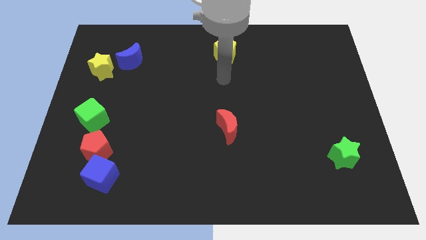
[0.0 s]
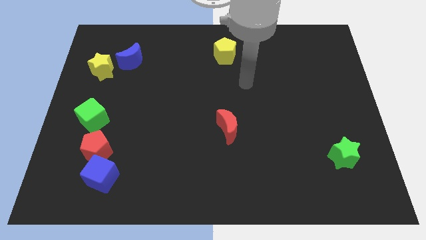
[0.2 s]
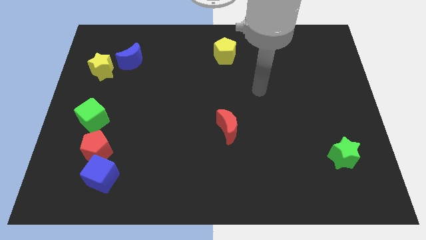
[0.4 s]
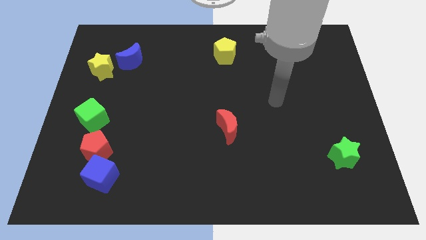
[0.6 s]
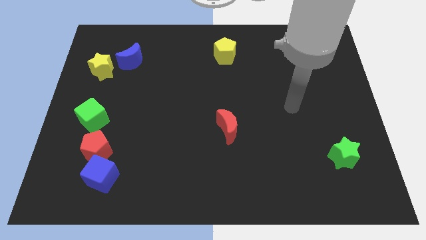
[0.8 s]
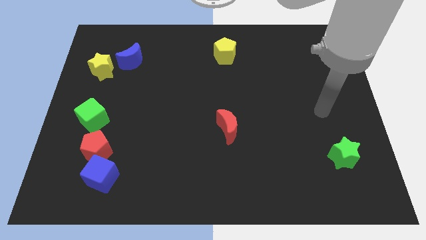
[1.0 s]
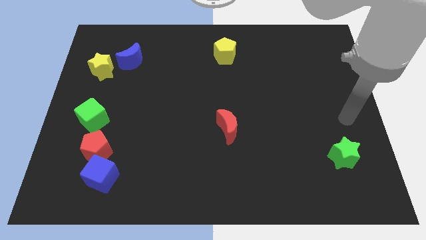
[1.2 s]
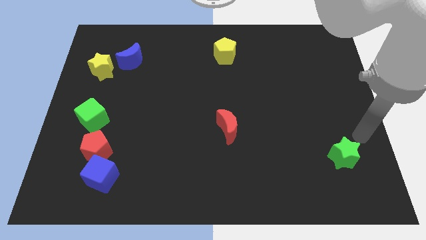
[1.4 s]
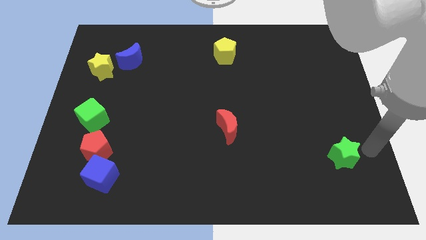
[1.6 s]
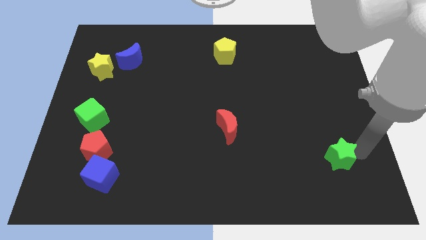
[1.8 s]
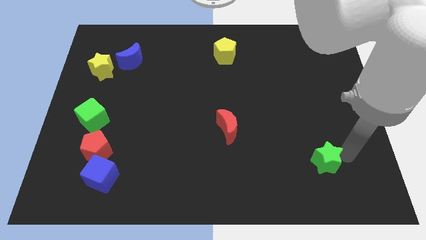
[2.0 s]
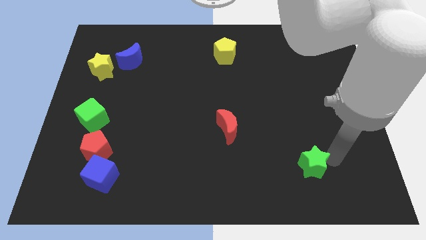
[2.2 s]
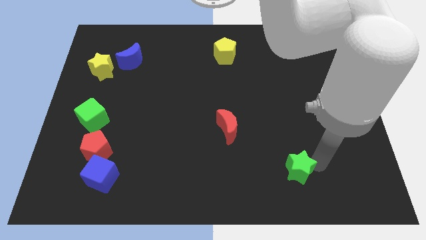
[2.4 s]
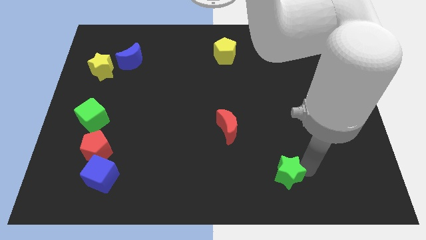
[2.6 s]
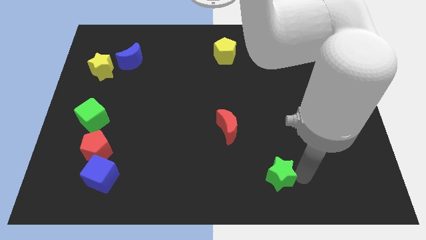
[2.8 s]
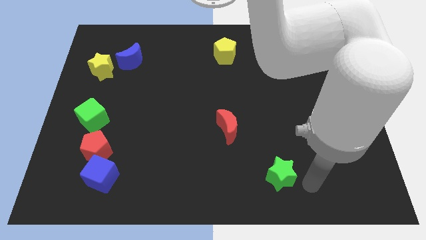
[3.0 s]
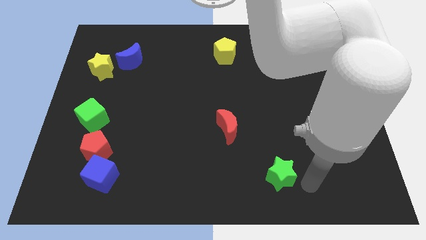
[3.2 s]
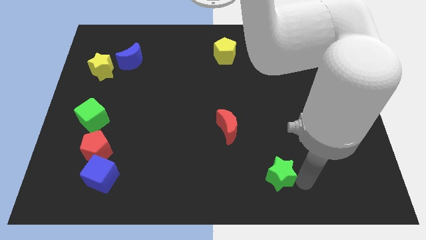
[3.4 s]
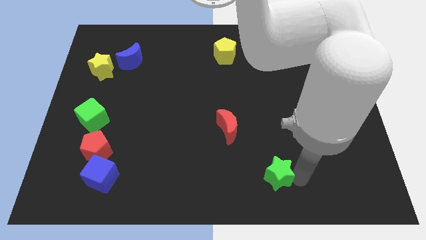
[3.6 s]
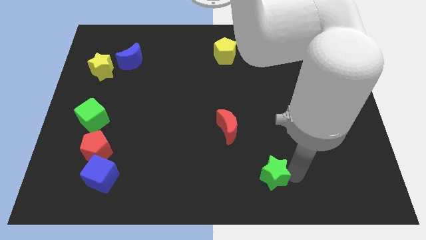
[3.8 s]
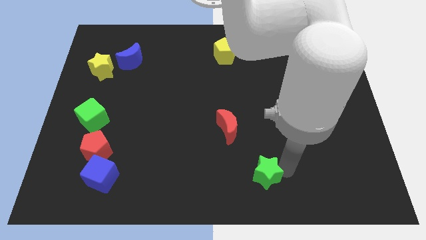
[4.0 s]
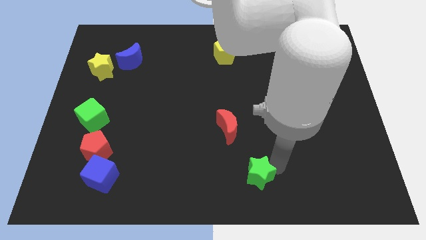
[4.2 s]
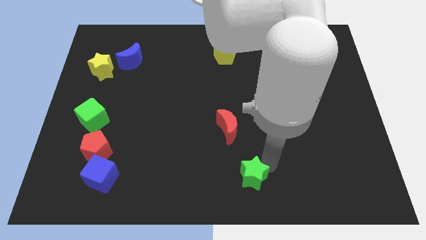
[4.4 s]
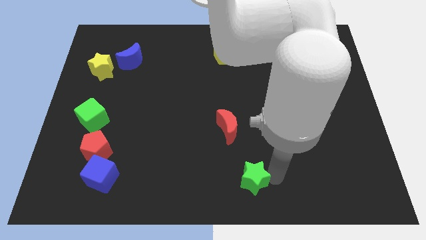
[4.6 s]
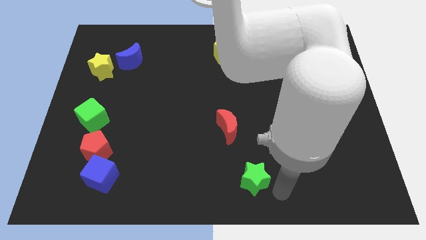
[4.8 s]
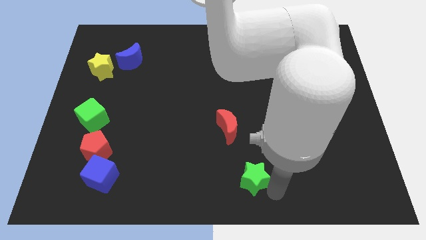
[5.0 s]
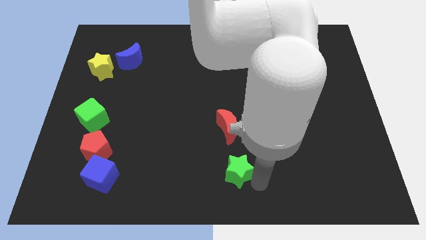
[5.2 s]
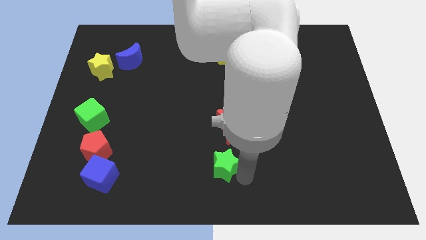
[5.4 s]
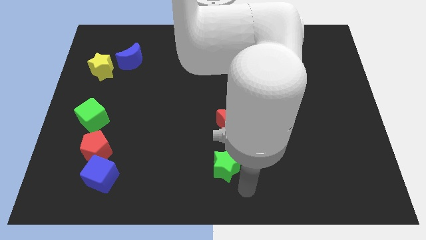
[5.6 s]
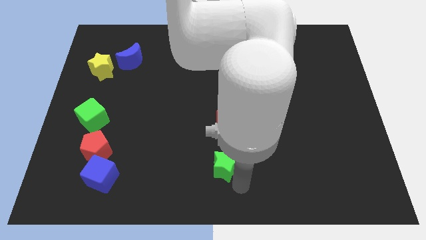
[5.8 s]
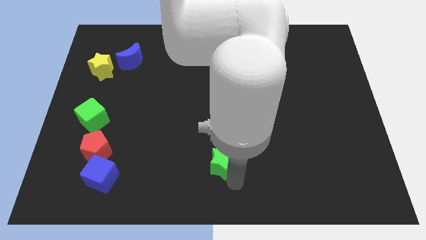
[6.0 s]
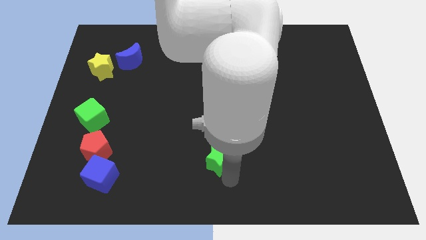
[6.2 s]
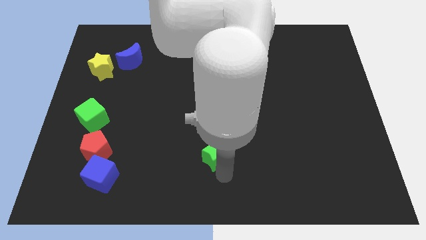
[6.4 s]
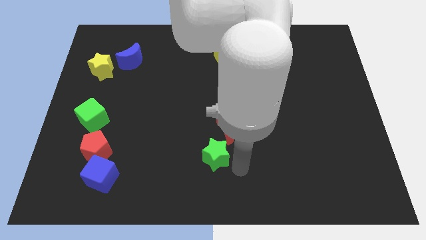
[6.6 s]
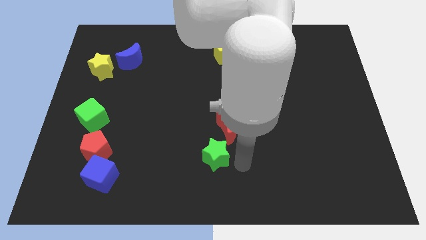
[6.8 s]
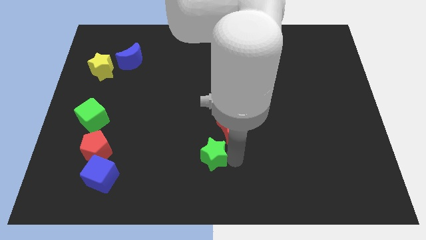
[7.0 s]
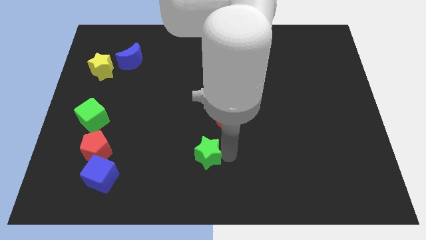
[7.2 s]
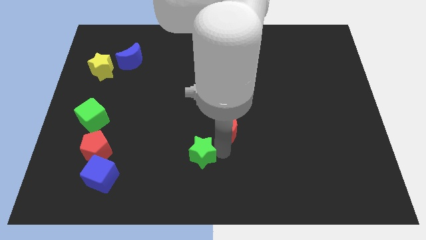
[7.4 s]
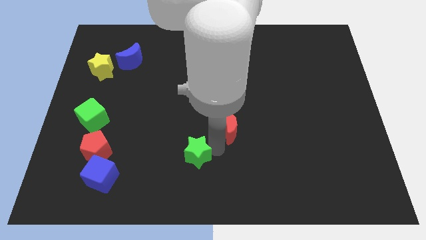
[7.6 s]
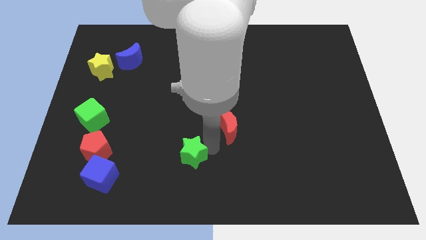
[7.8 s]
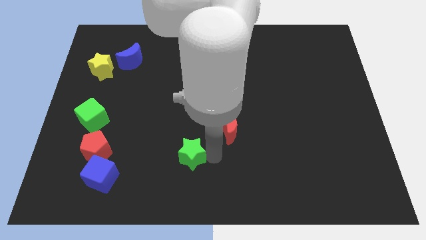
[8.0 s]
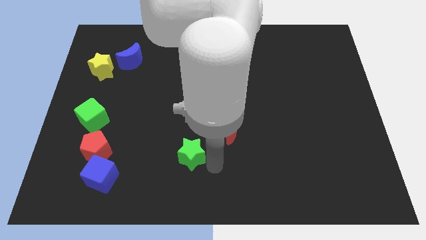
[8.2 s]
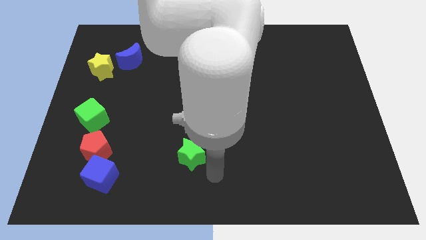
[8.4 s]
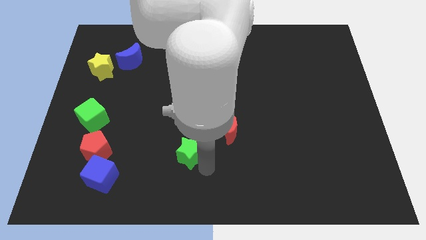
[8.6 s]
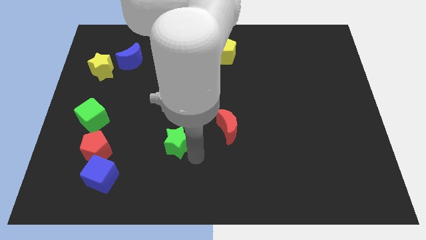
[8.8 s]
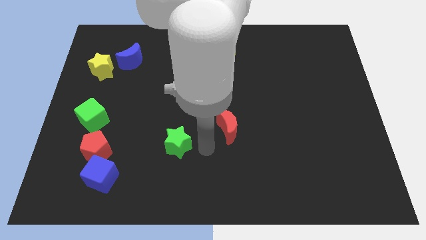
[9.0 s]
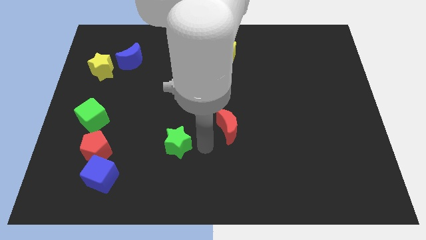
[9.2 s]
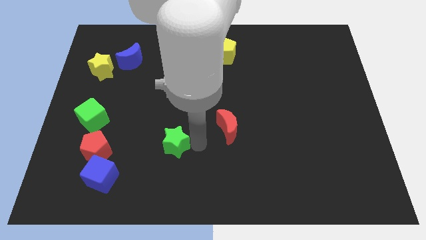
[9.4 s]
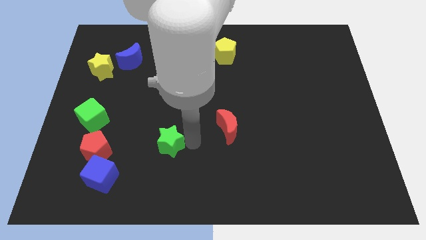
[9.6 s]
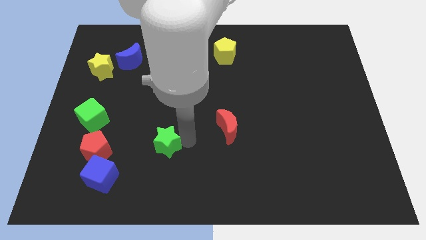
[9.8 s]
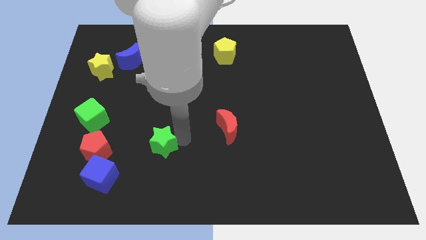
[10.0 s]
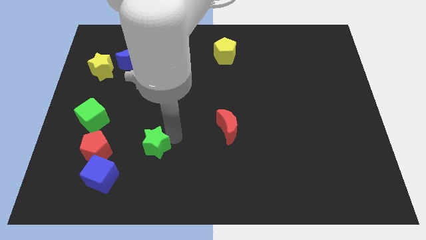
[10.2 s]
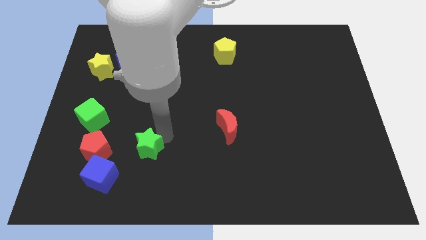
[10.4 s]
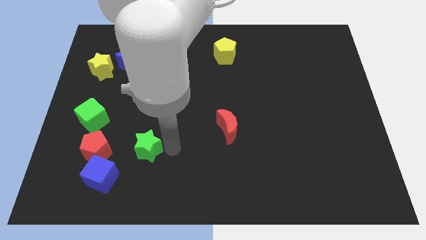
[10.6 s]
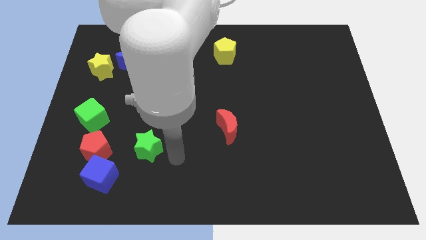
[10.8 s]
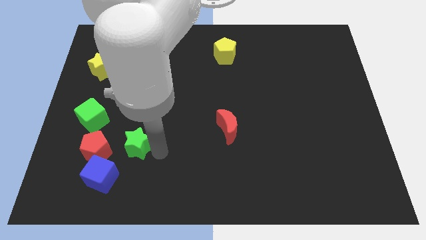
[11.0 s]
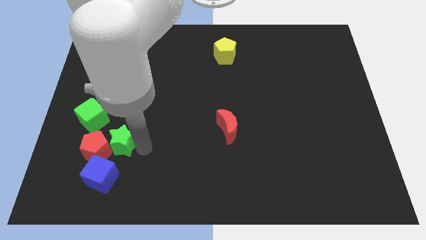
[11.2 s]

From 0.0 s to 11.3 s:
move the green star to the top of the blue cube
